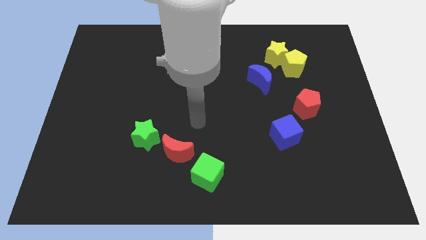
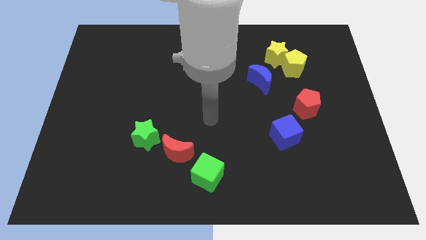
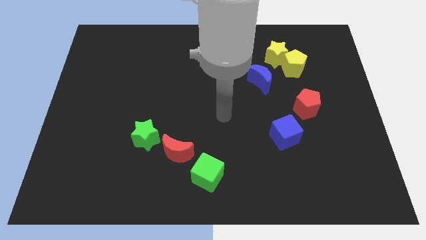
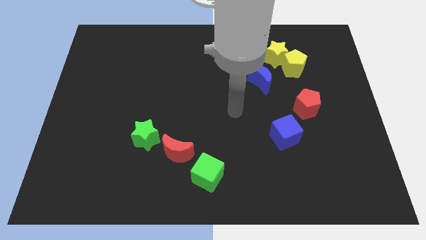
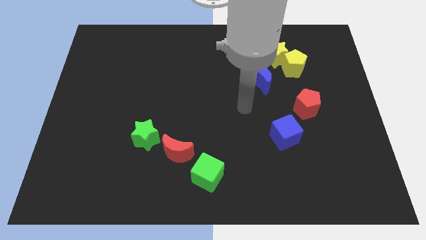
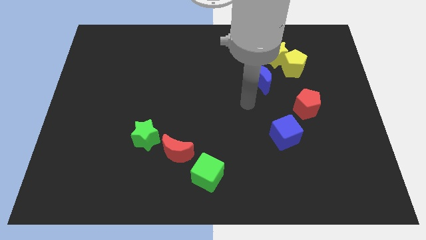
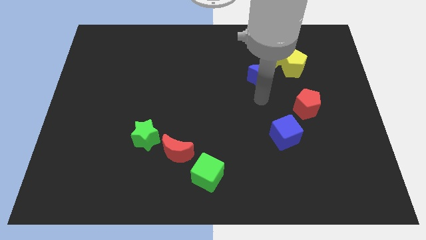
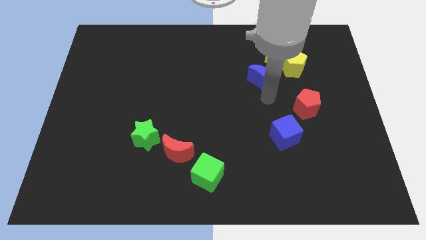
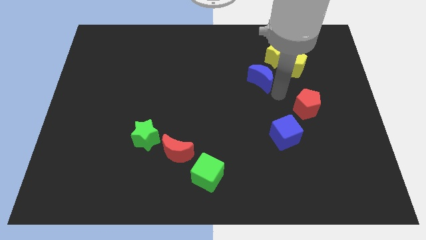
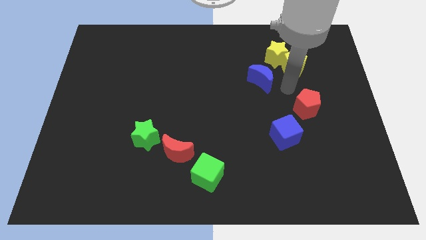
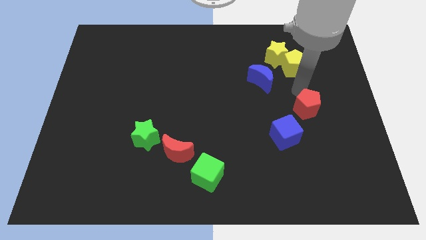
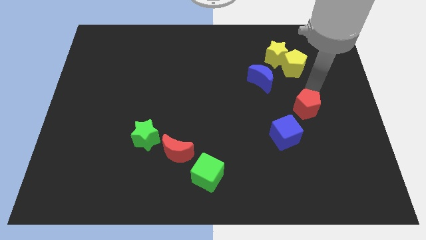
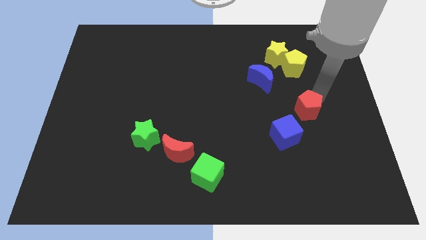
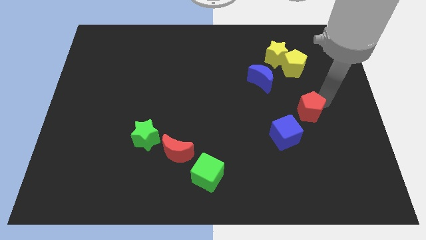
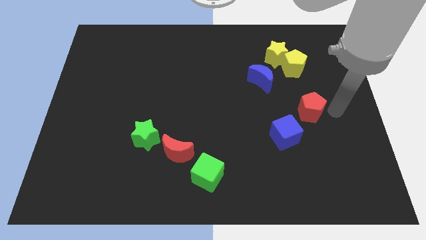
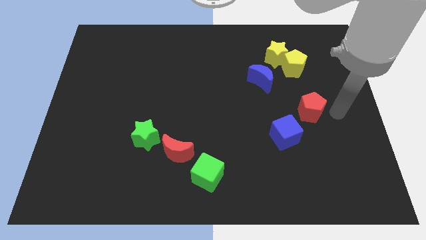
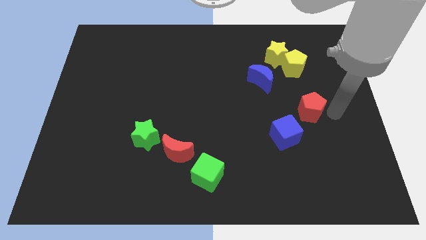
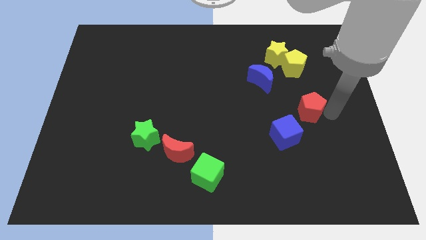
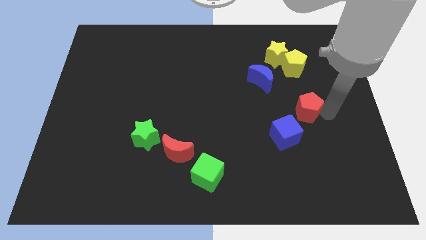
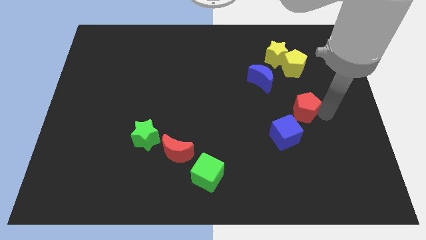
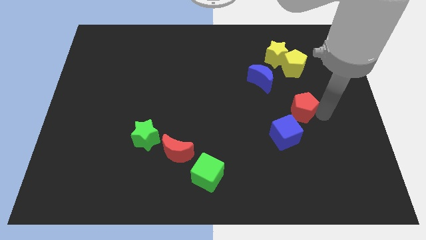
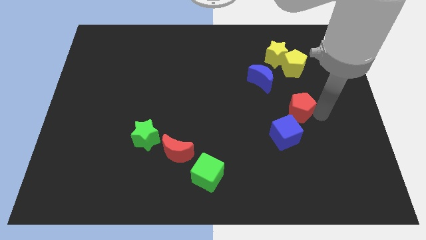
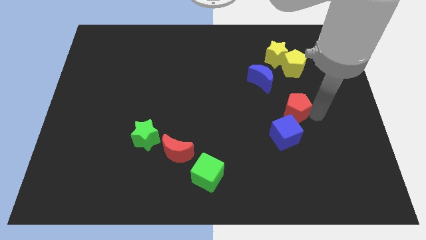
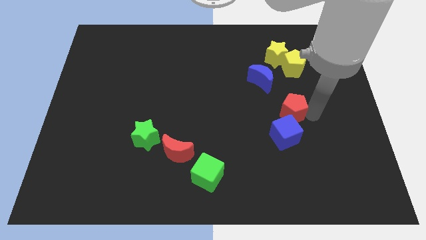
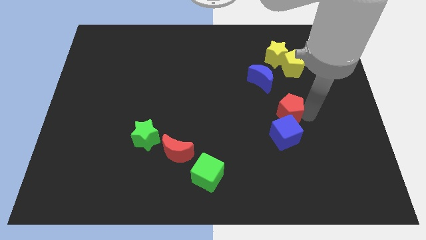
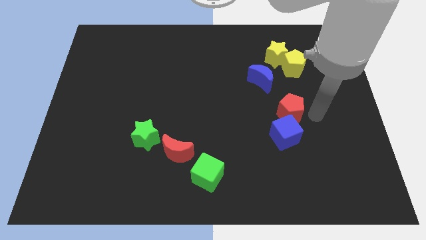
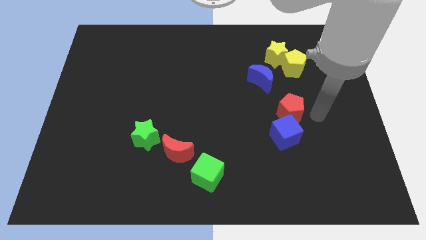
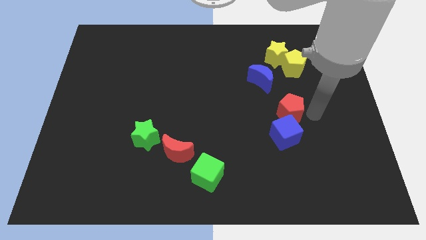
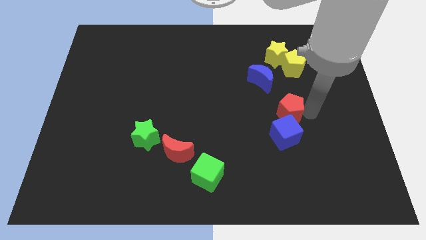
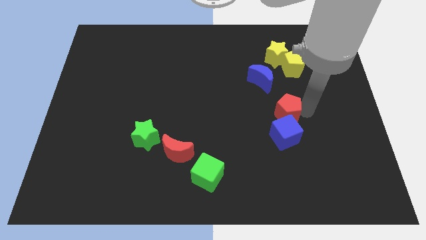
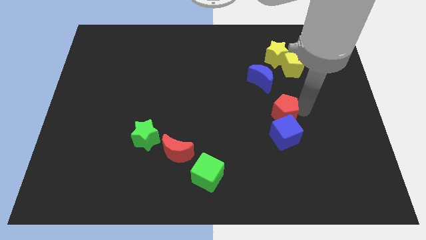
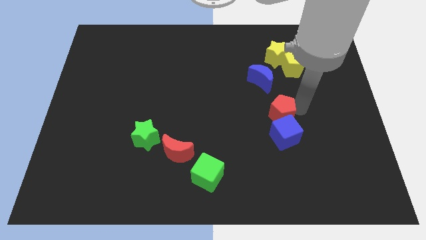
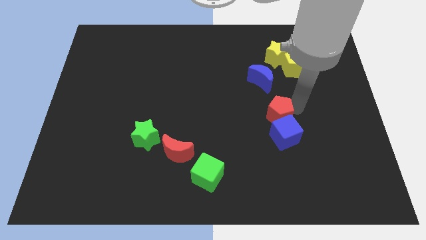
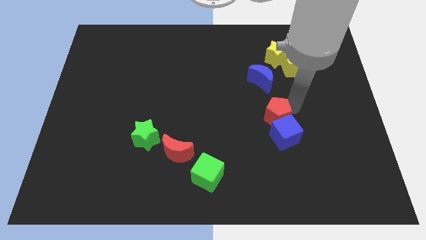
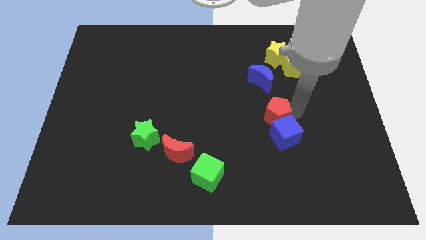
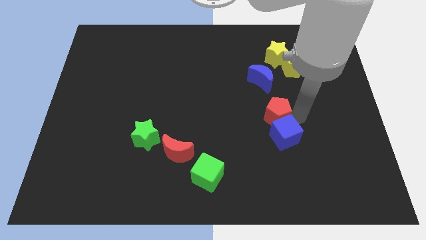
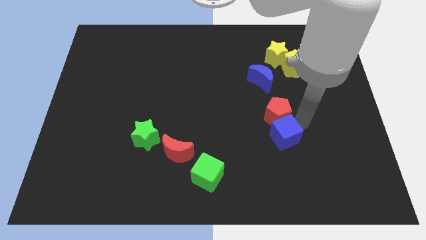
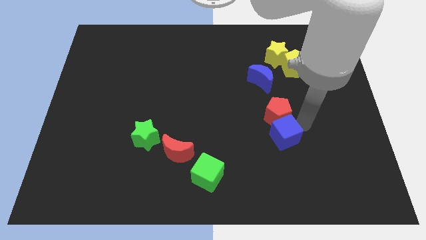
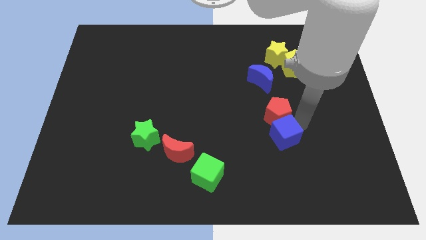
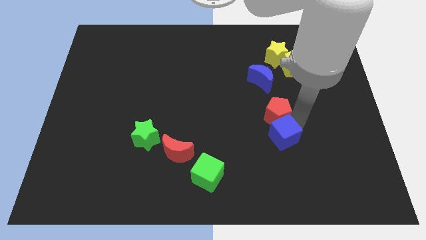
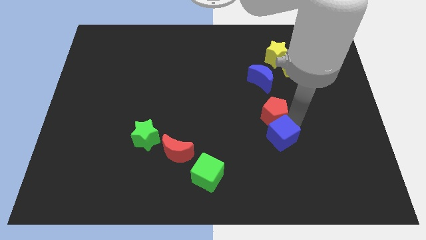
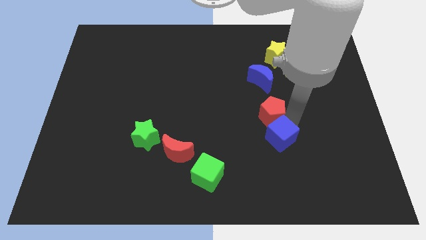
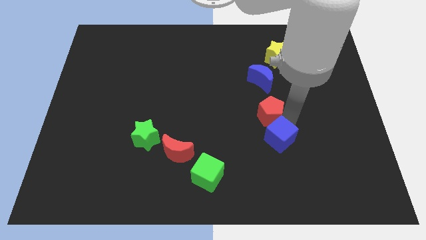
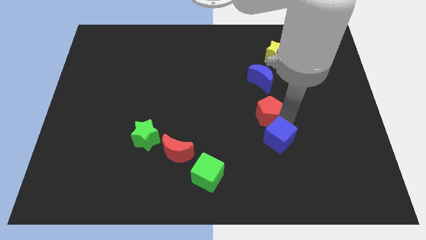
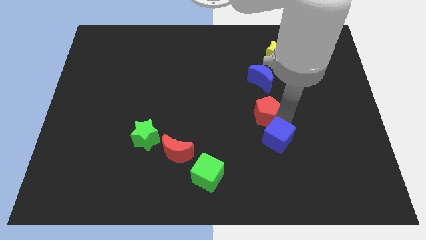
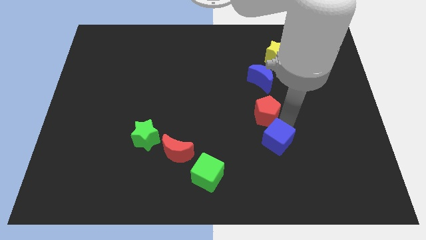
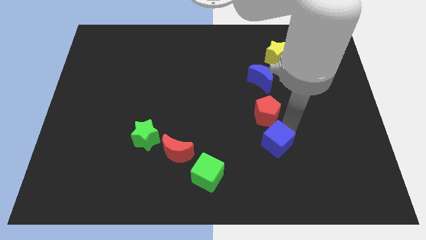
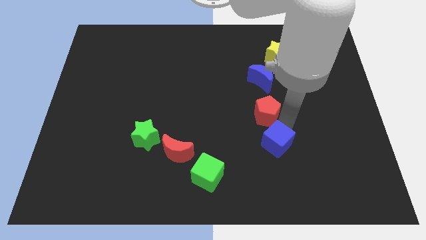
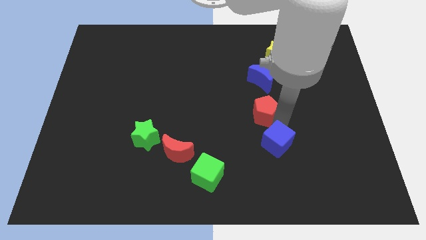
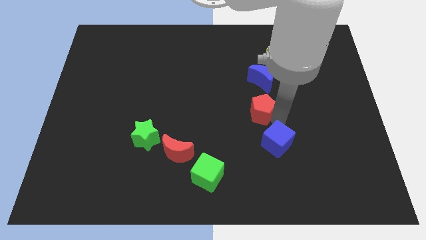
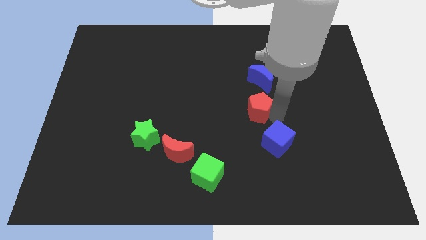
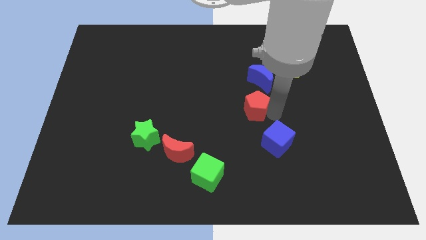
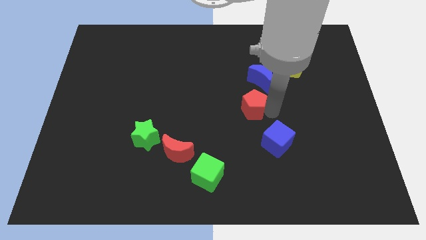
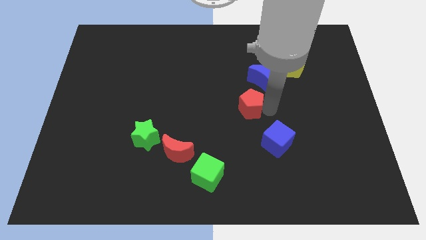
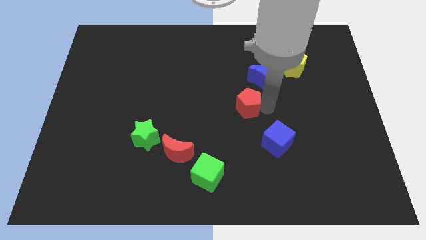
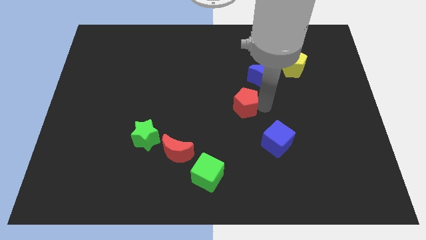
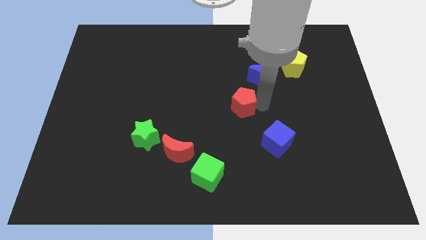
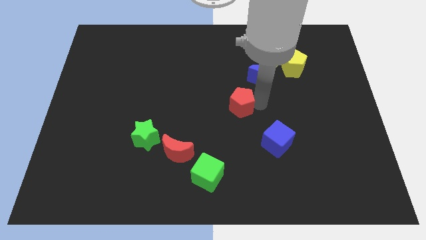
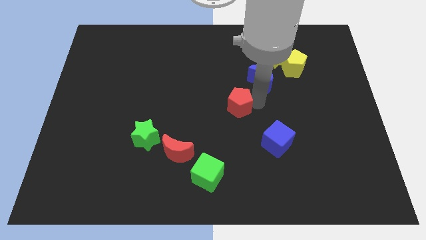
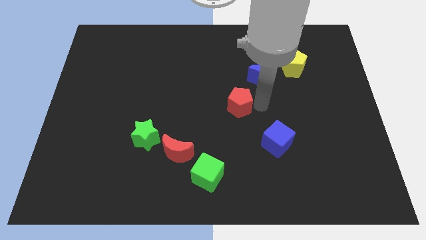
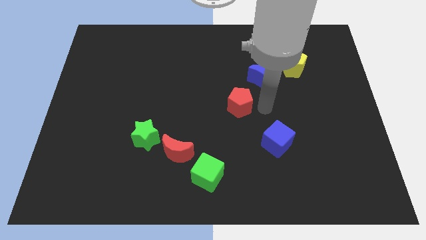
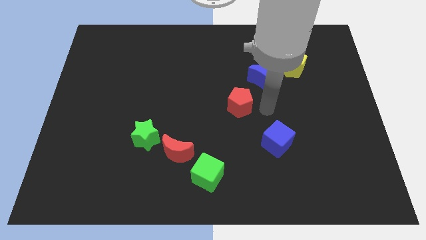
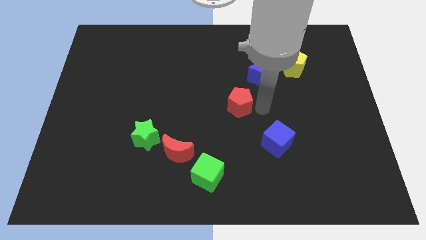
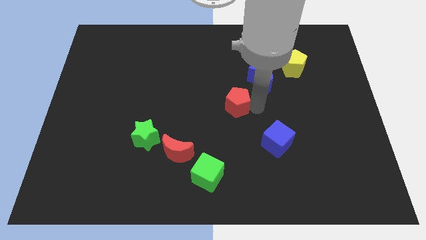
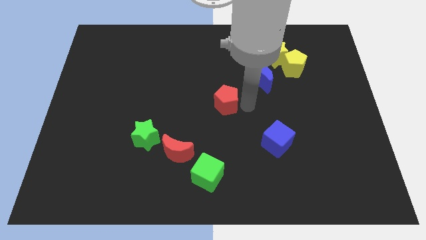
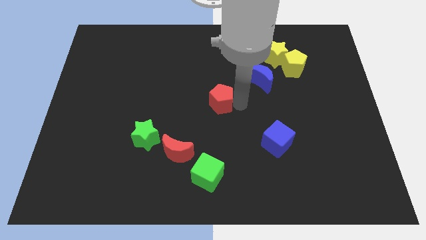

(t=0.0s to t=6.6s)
push the red pentagon to the left

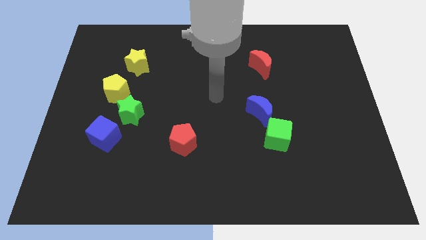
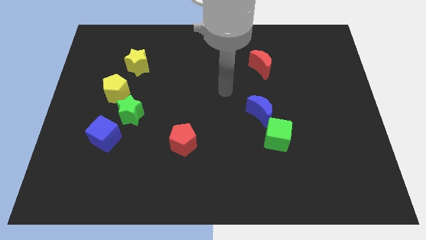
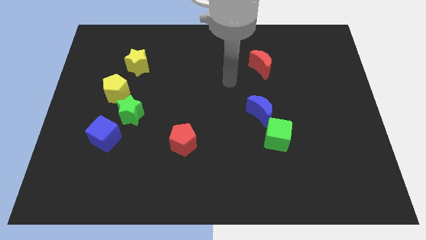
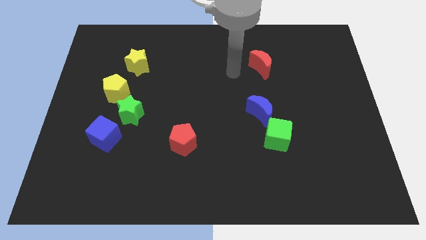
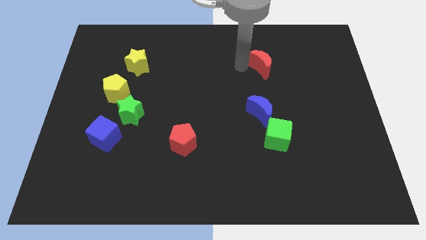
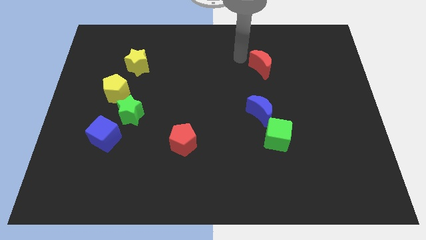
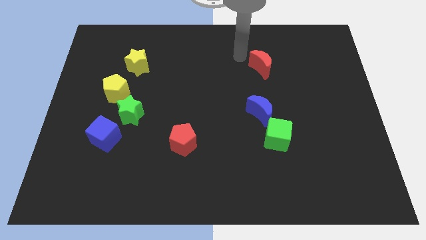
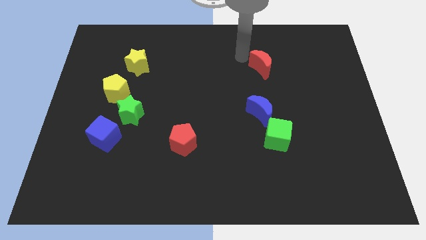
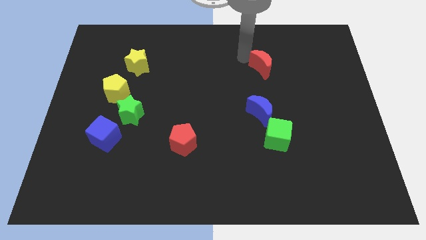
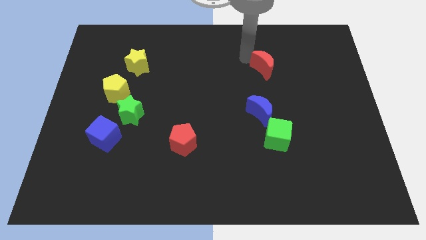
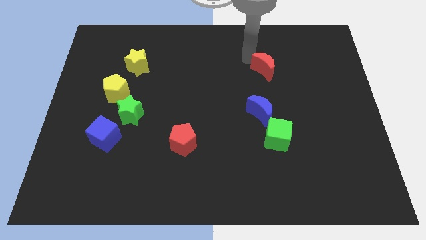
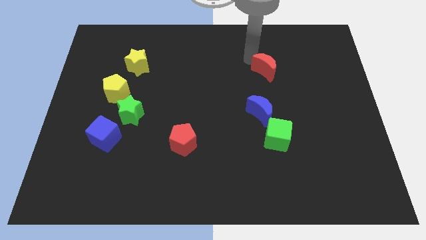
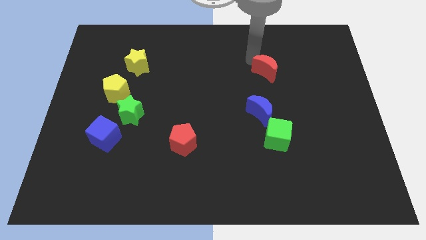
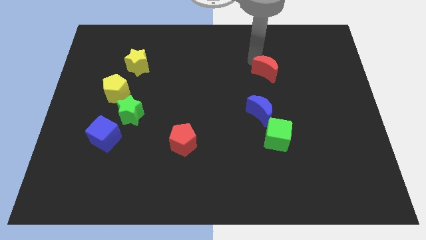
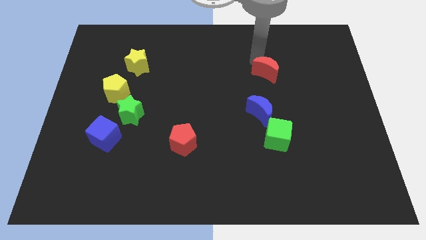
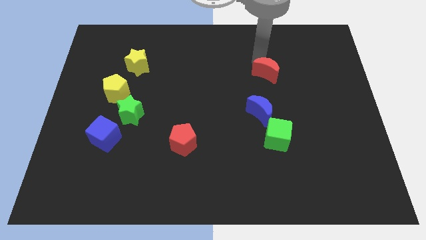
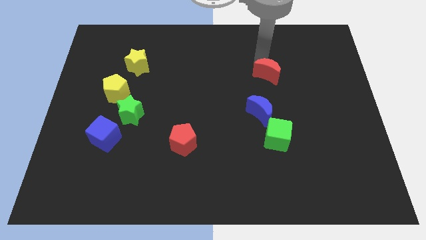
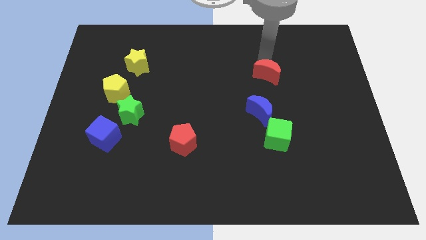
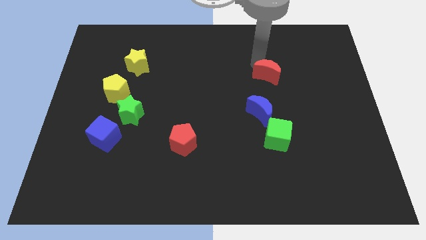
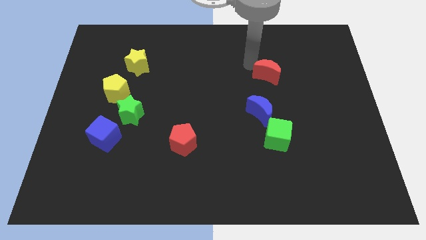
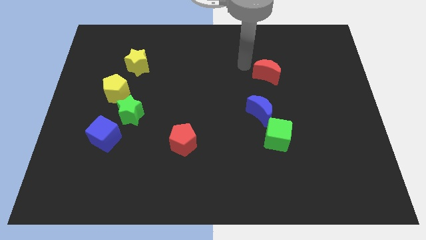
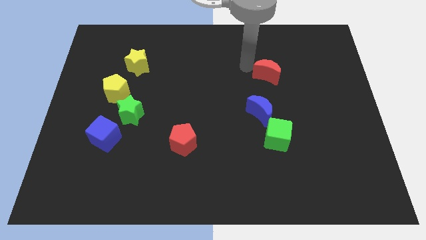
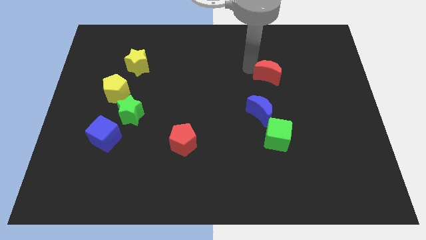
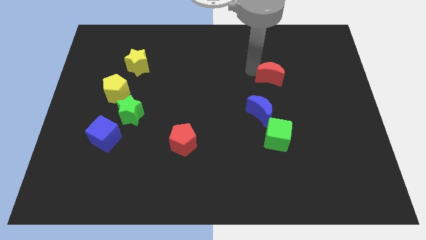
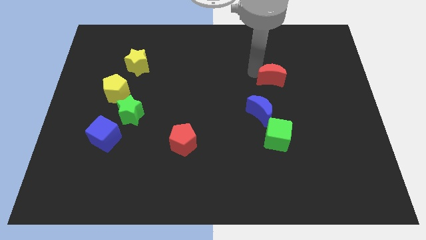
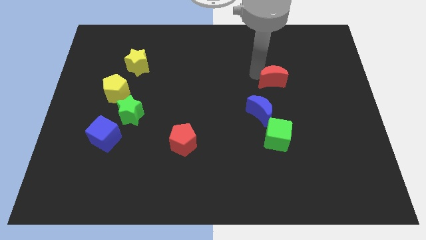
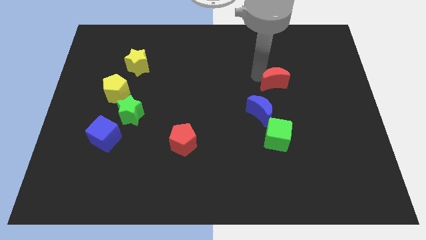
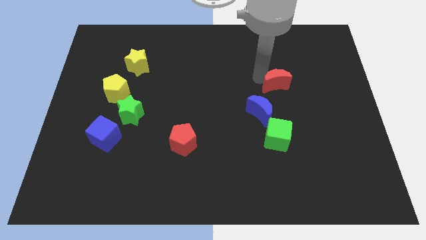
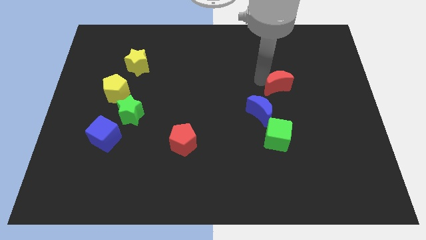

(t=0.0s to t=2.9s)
move the red moon down and then to the right a little
